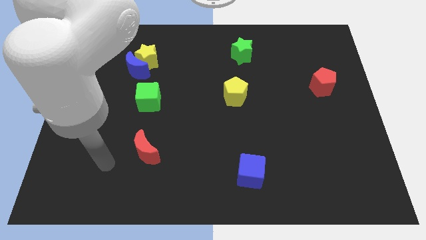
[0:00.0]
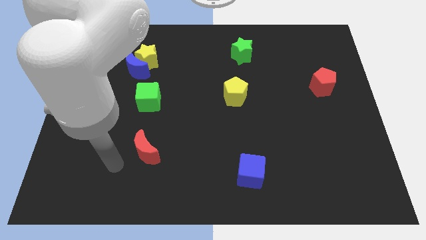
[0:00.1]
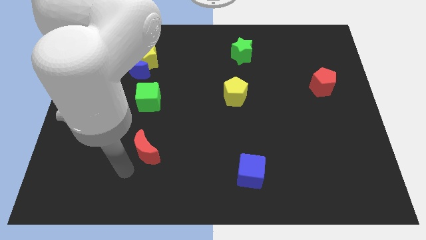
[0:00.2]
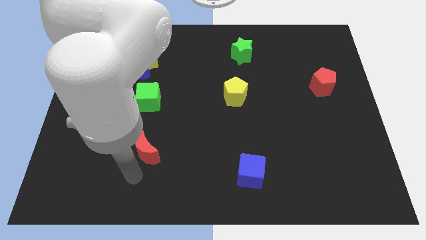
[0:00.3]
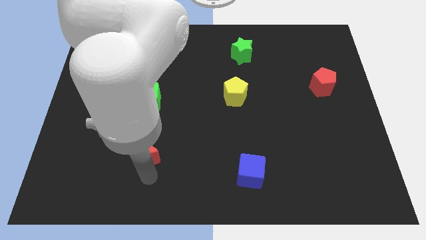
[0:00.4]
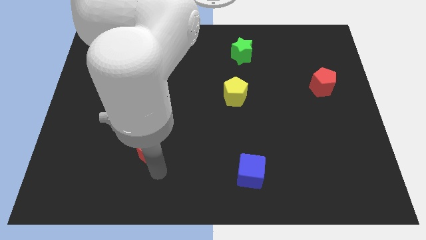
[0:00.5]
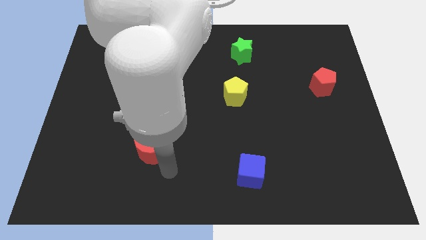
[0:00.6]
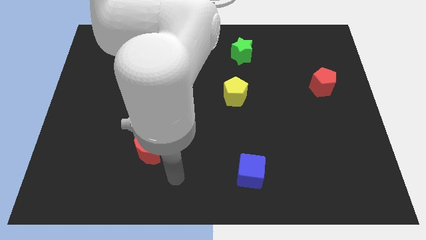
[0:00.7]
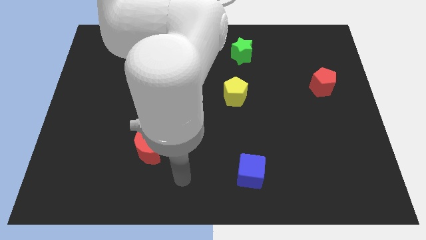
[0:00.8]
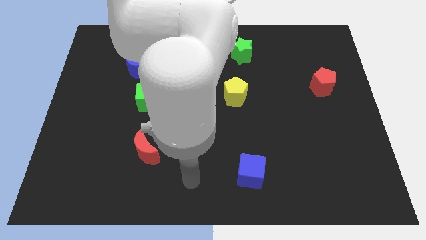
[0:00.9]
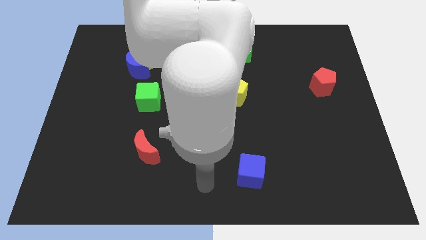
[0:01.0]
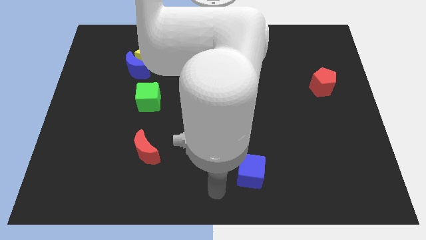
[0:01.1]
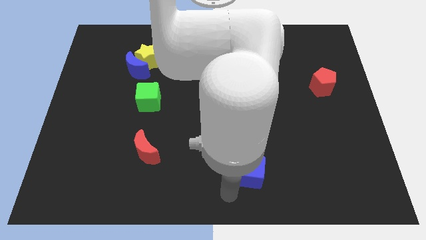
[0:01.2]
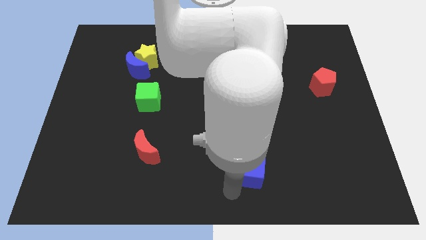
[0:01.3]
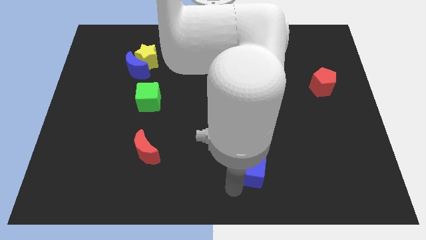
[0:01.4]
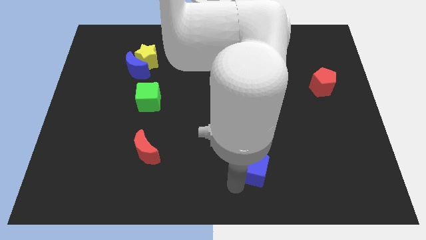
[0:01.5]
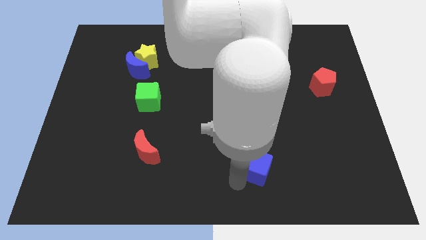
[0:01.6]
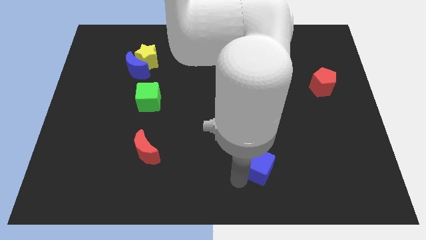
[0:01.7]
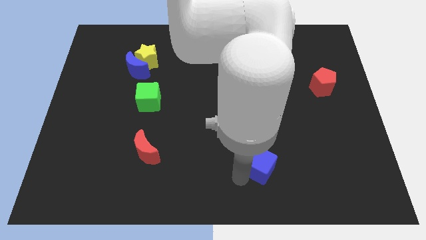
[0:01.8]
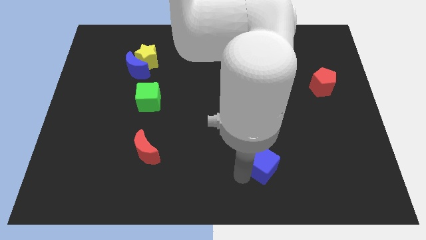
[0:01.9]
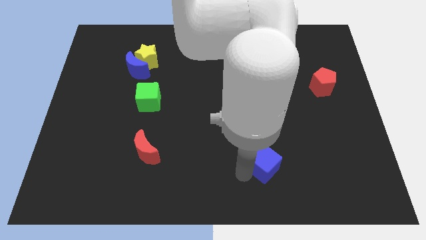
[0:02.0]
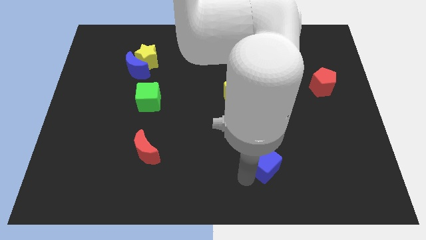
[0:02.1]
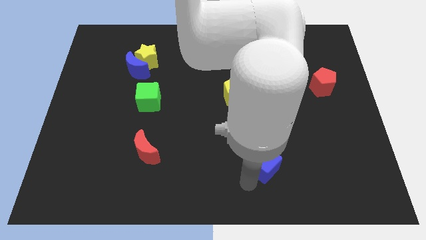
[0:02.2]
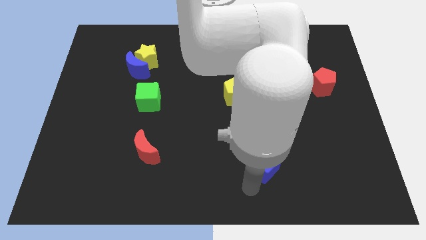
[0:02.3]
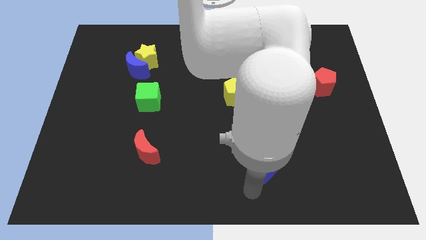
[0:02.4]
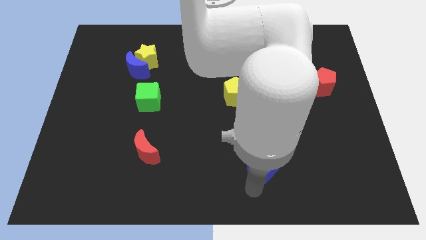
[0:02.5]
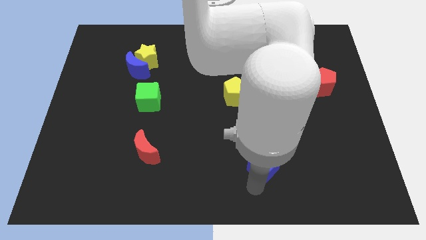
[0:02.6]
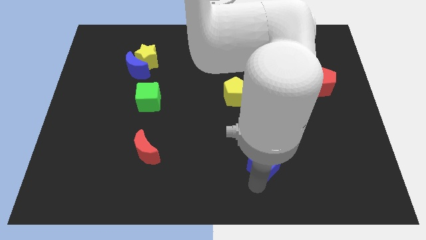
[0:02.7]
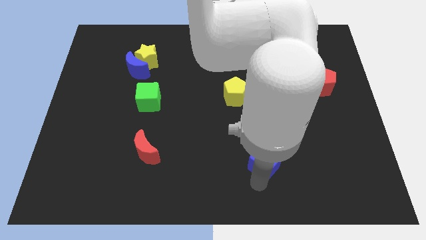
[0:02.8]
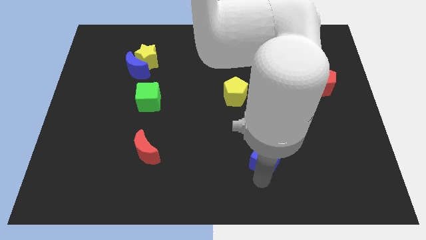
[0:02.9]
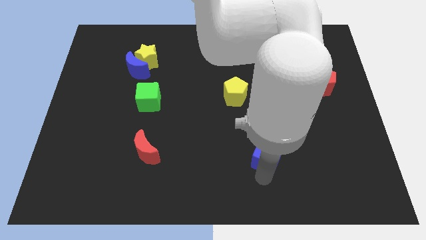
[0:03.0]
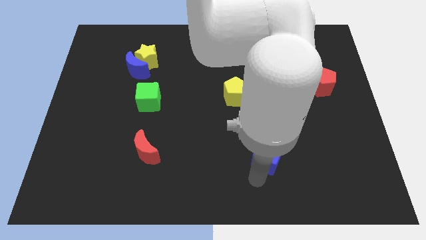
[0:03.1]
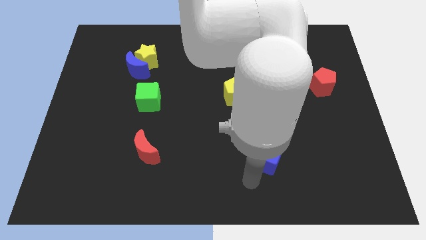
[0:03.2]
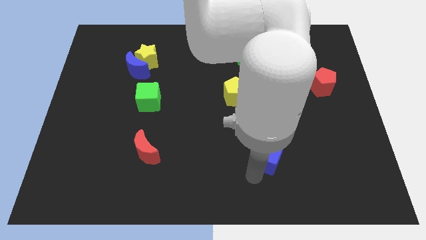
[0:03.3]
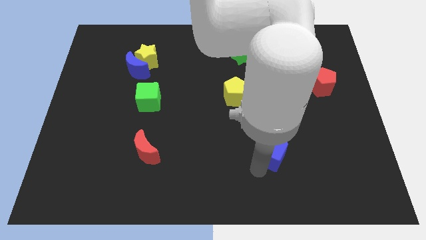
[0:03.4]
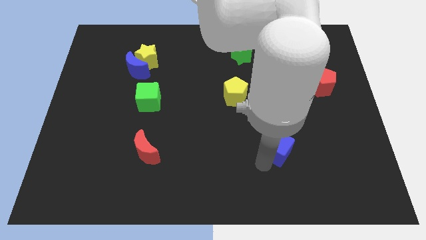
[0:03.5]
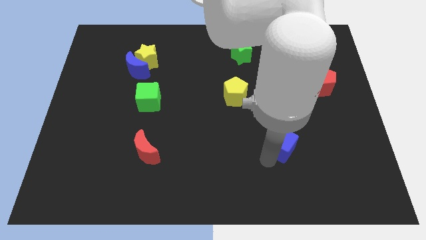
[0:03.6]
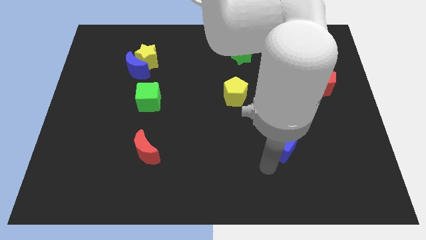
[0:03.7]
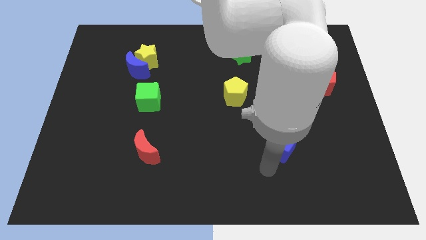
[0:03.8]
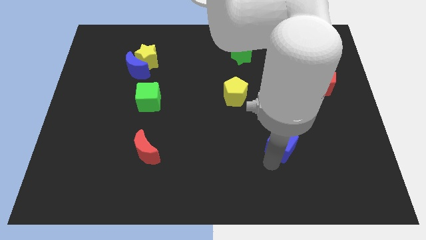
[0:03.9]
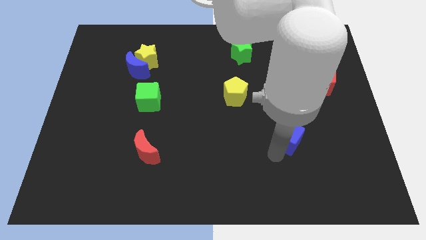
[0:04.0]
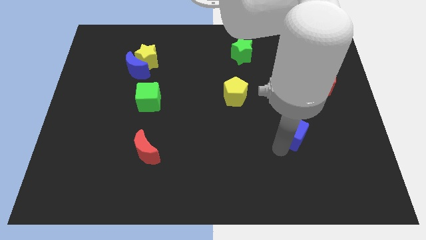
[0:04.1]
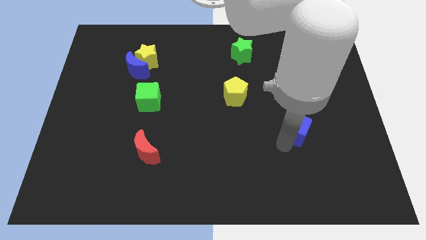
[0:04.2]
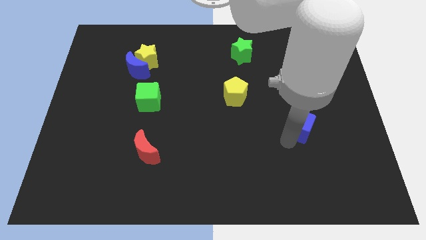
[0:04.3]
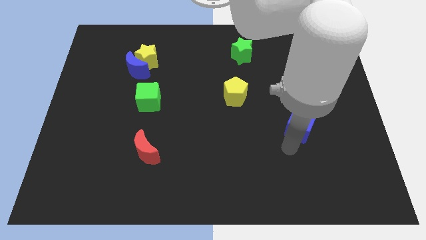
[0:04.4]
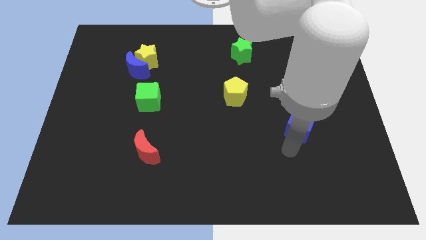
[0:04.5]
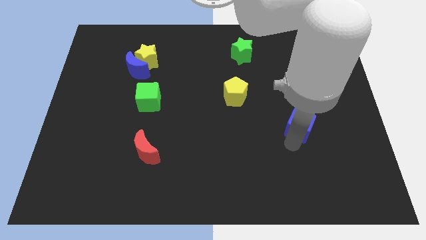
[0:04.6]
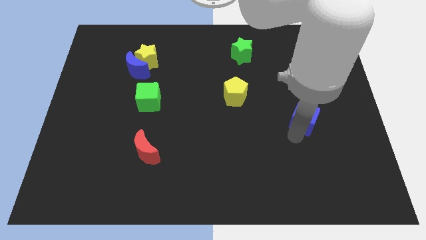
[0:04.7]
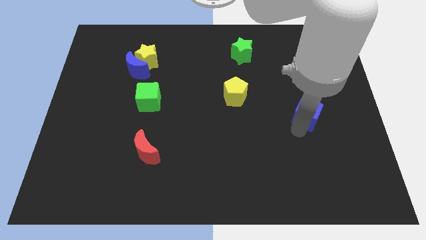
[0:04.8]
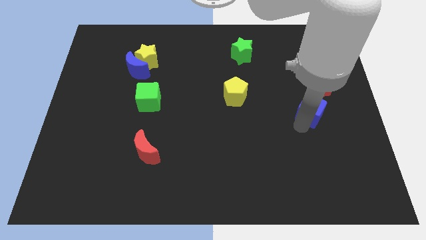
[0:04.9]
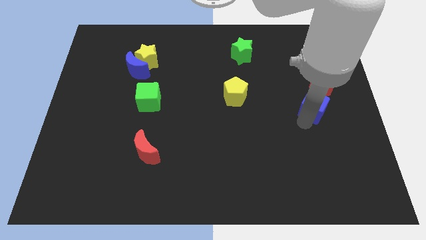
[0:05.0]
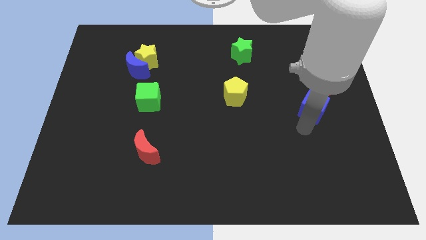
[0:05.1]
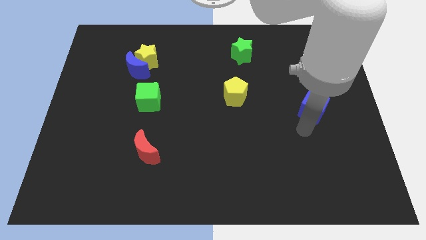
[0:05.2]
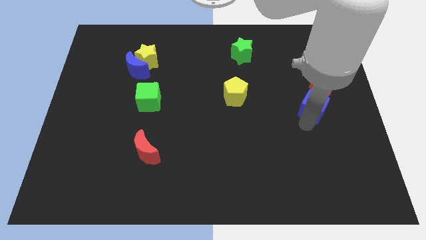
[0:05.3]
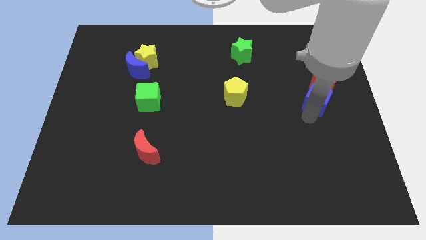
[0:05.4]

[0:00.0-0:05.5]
push the blue cube towards the red pentagon

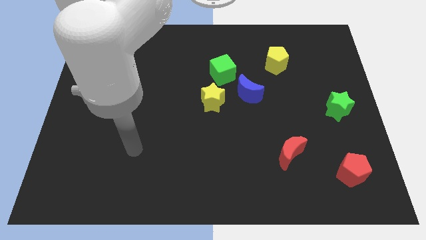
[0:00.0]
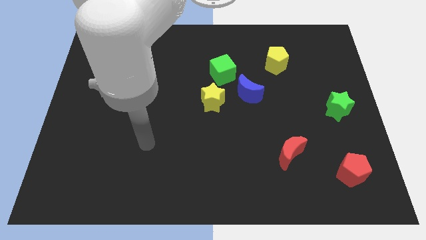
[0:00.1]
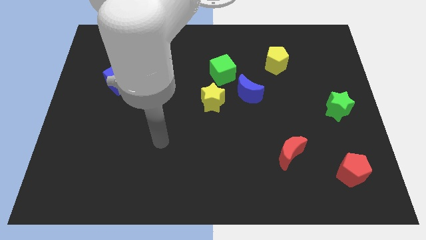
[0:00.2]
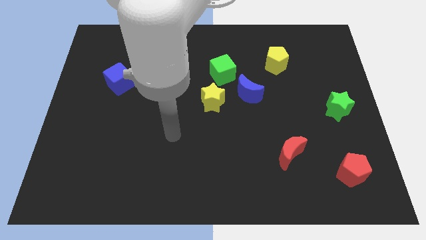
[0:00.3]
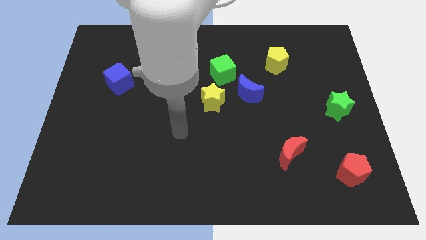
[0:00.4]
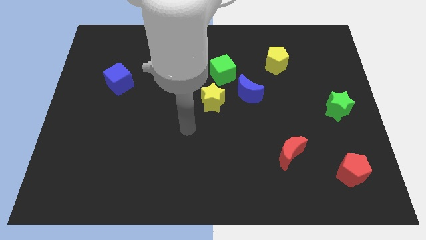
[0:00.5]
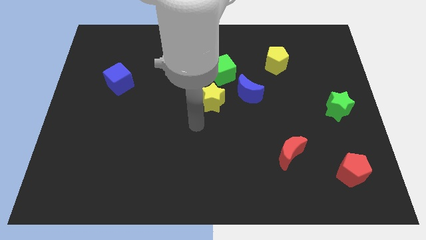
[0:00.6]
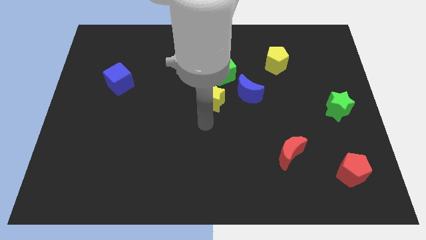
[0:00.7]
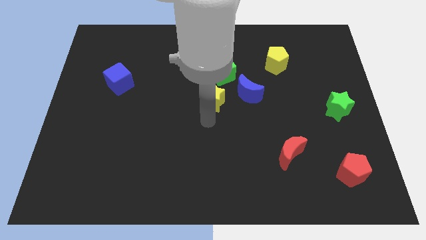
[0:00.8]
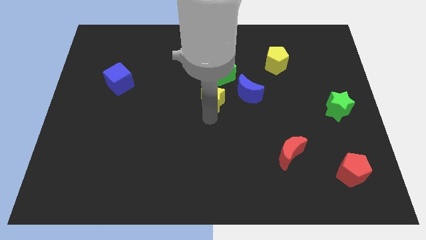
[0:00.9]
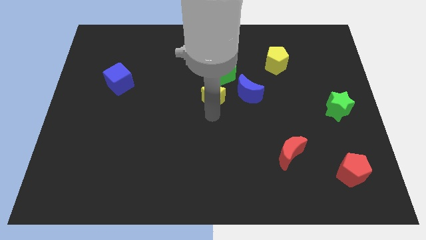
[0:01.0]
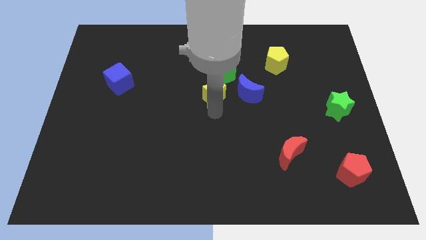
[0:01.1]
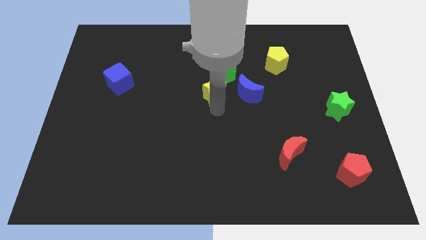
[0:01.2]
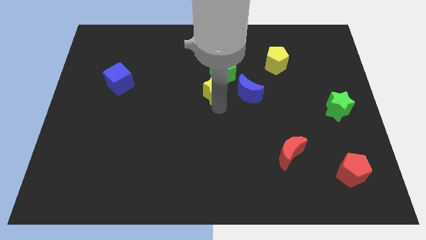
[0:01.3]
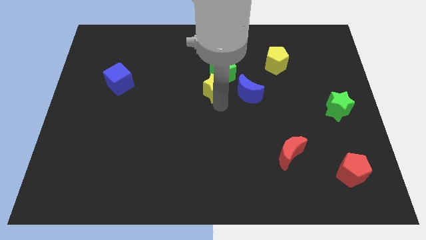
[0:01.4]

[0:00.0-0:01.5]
move the yellow star to the green cube

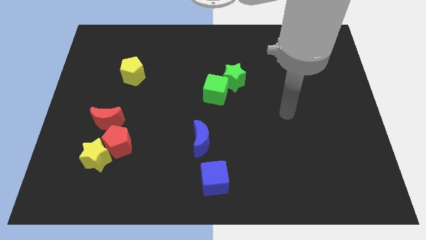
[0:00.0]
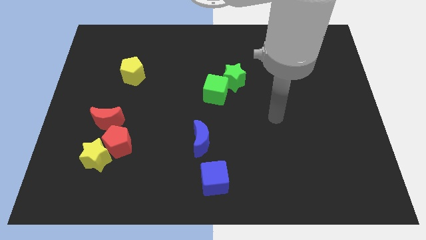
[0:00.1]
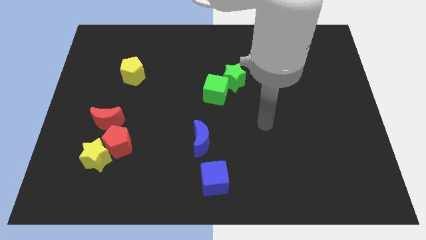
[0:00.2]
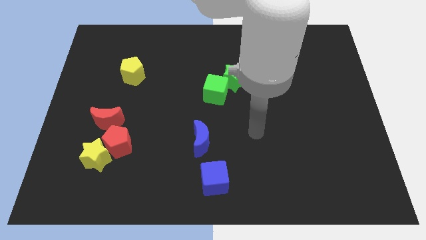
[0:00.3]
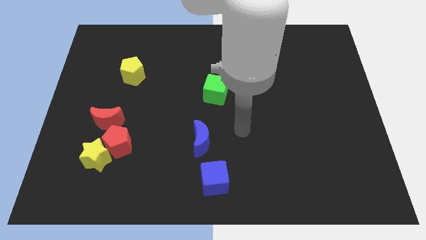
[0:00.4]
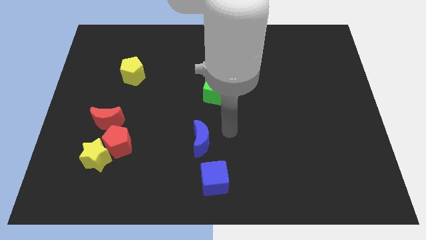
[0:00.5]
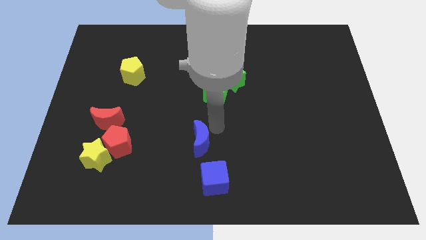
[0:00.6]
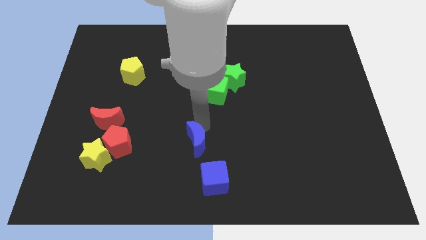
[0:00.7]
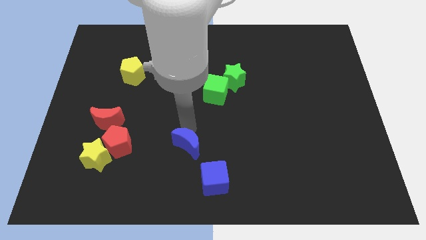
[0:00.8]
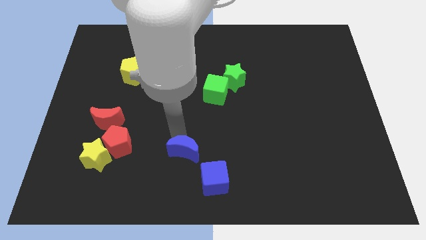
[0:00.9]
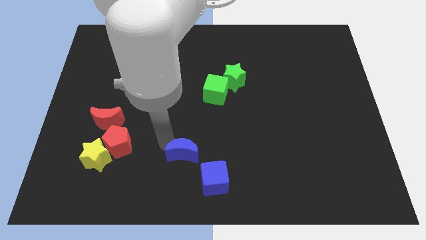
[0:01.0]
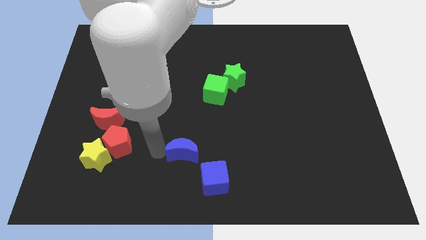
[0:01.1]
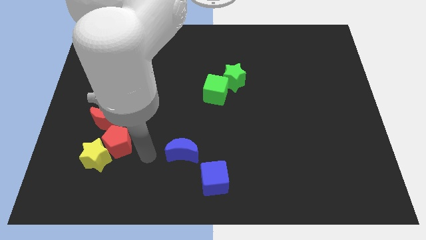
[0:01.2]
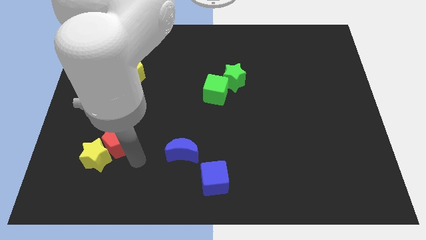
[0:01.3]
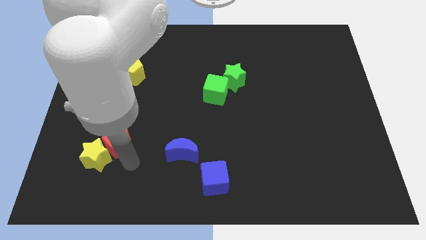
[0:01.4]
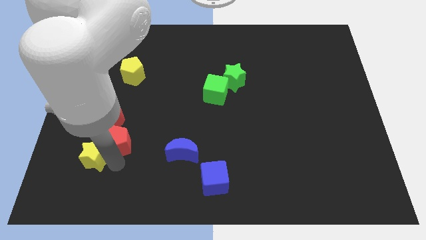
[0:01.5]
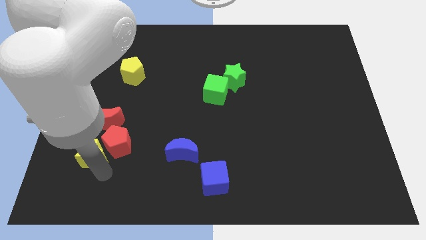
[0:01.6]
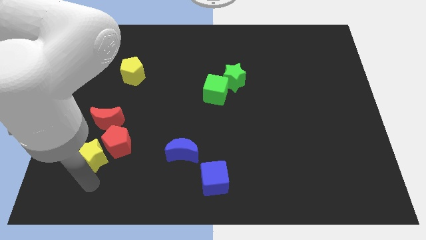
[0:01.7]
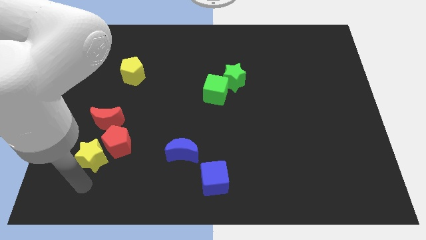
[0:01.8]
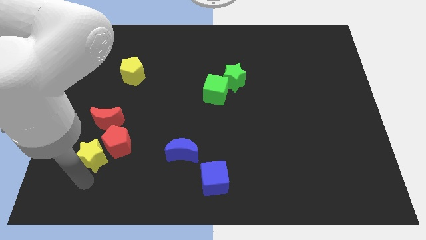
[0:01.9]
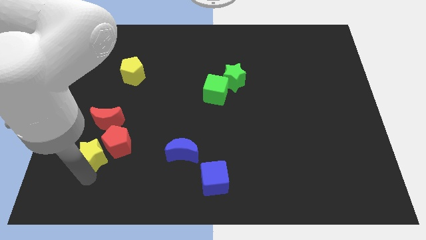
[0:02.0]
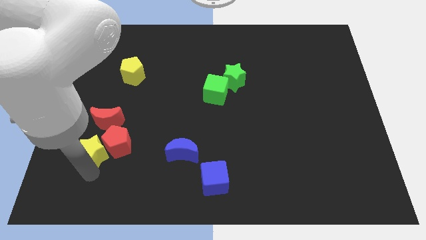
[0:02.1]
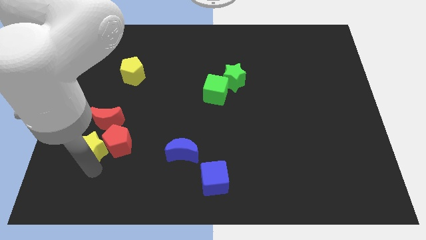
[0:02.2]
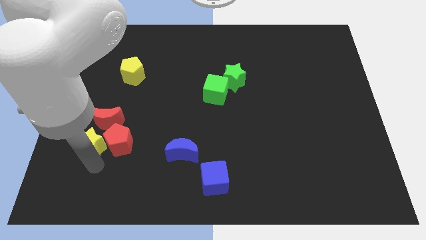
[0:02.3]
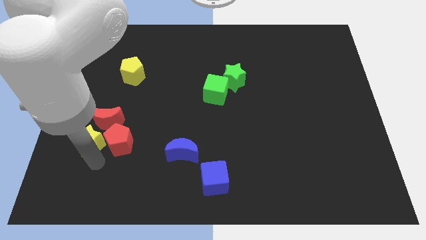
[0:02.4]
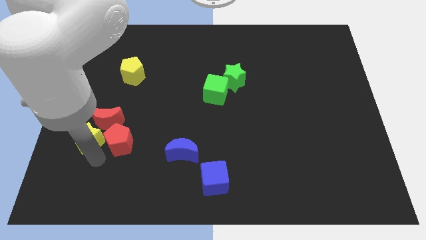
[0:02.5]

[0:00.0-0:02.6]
put the yellow star close to the red moon
